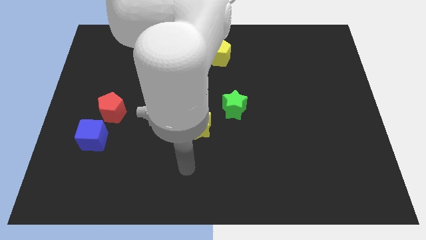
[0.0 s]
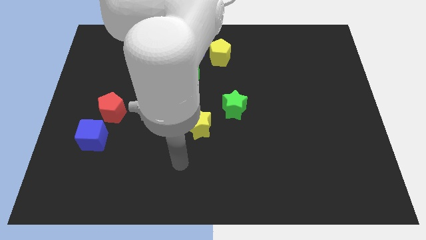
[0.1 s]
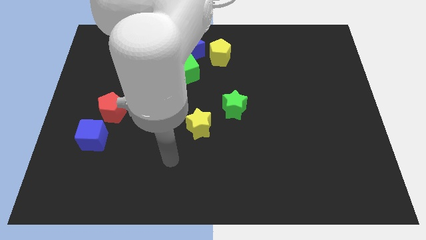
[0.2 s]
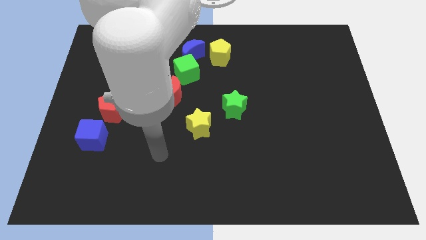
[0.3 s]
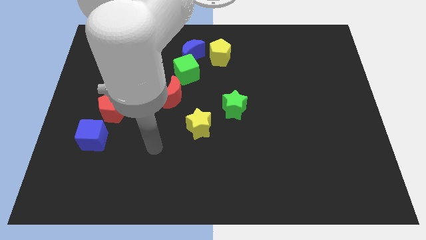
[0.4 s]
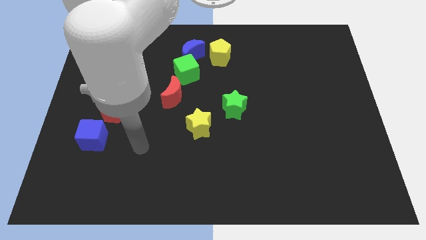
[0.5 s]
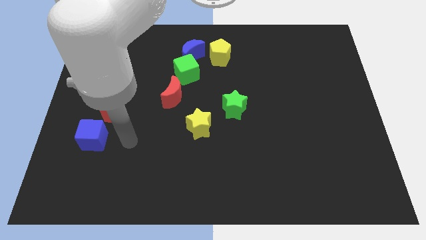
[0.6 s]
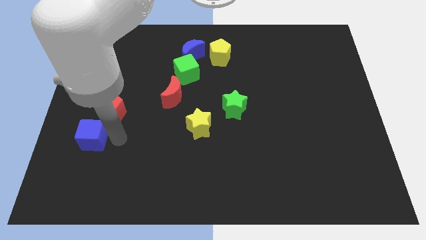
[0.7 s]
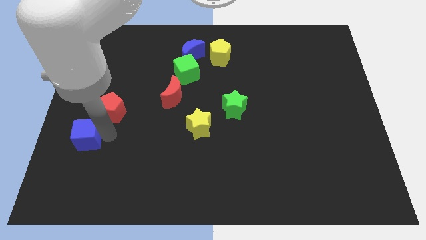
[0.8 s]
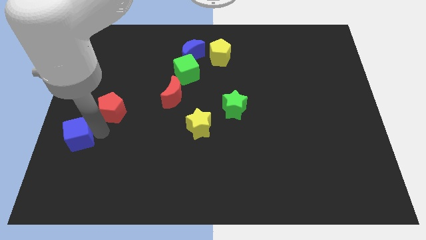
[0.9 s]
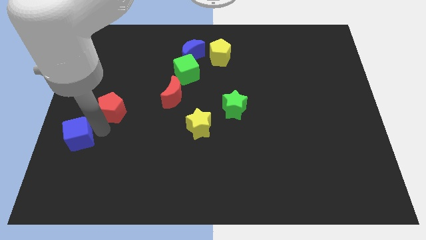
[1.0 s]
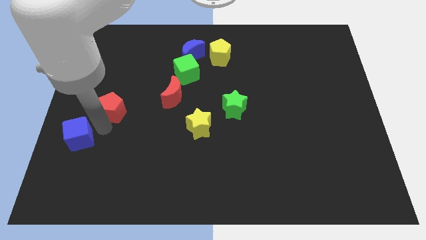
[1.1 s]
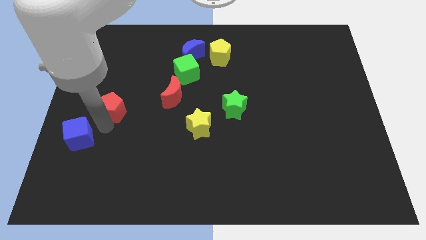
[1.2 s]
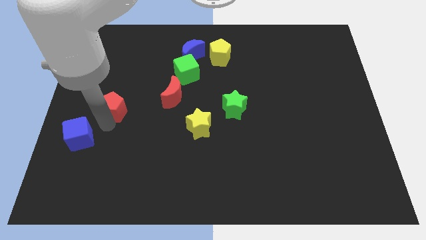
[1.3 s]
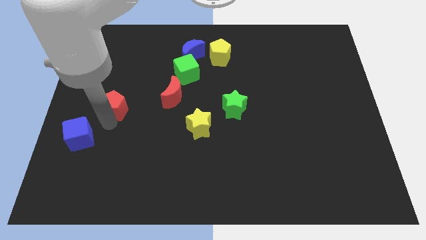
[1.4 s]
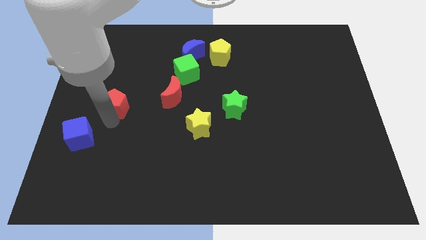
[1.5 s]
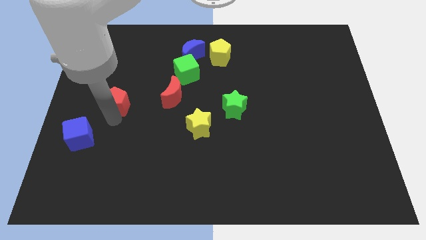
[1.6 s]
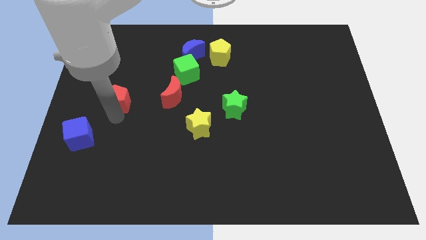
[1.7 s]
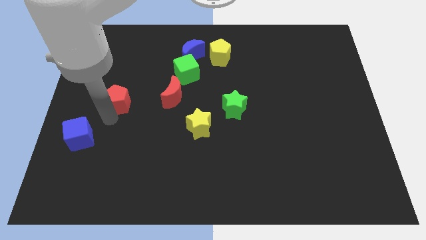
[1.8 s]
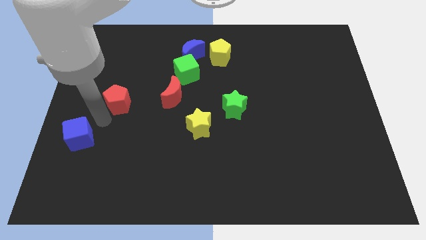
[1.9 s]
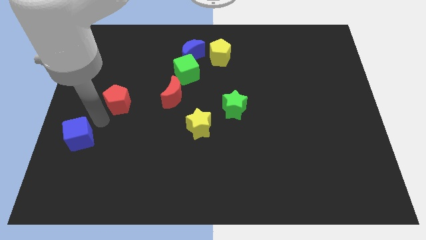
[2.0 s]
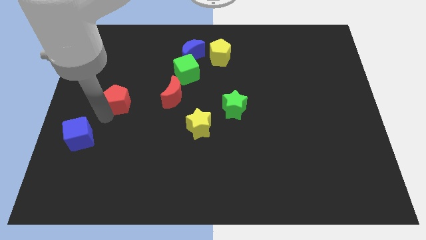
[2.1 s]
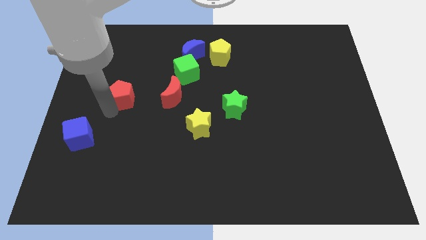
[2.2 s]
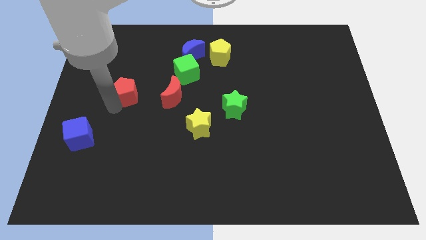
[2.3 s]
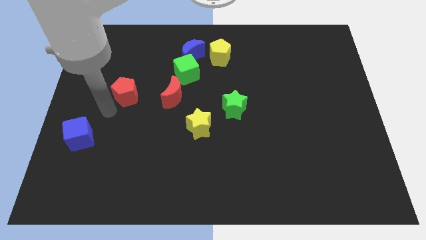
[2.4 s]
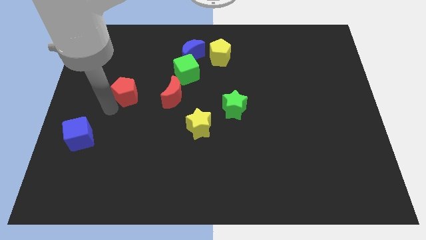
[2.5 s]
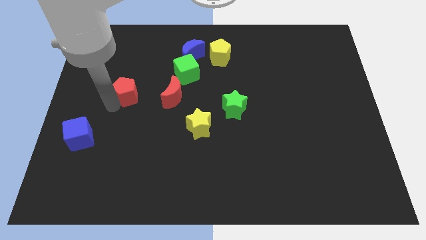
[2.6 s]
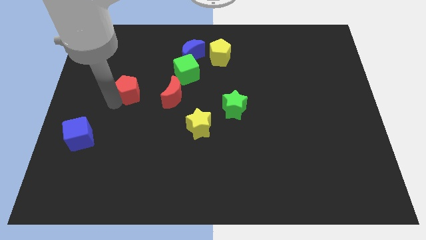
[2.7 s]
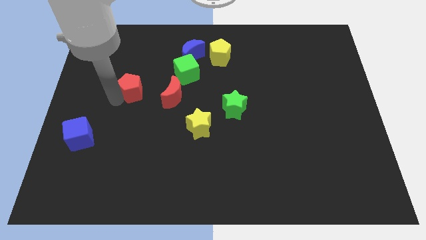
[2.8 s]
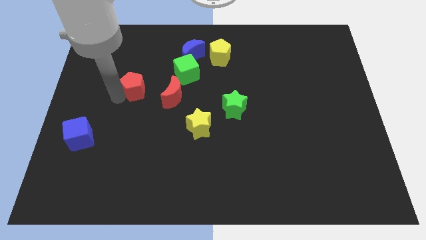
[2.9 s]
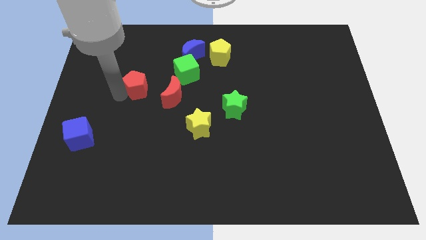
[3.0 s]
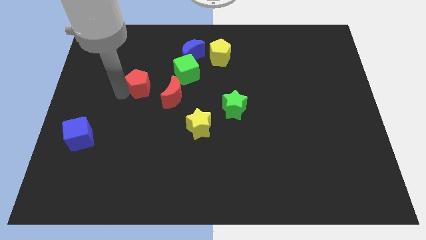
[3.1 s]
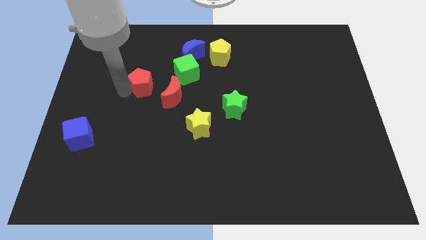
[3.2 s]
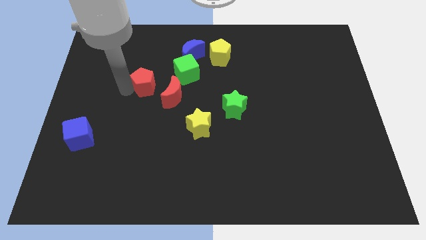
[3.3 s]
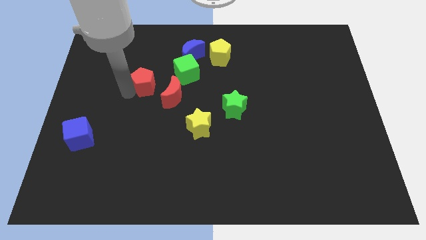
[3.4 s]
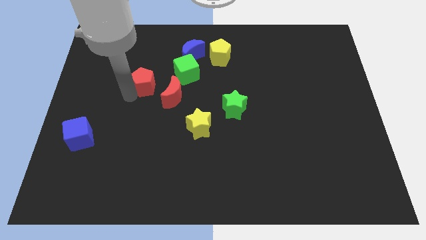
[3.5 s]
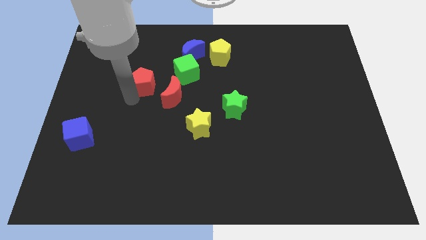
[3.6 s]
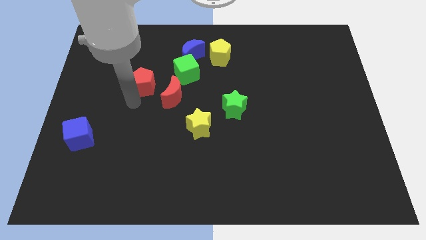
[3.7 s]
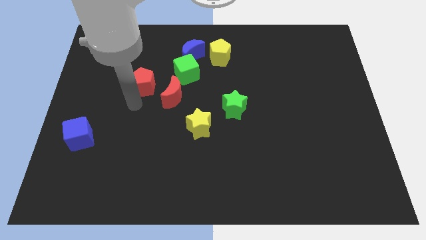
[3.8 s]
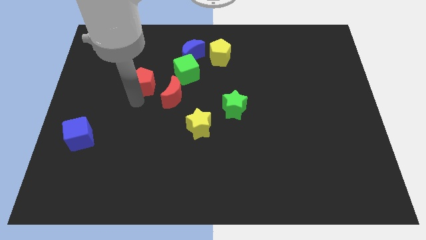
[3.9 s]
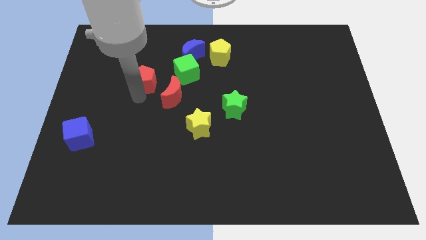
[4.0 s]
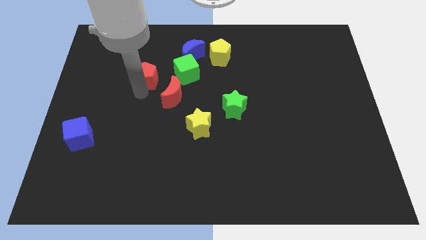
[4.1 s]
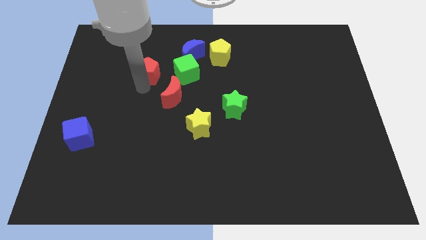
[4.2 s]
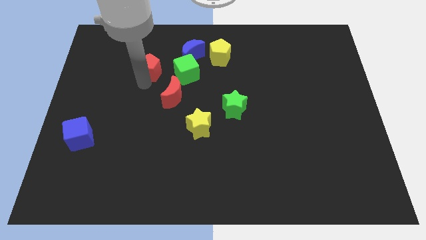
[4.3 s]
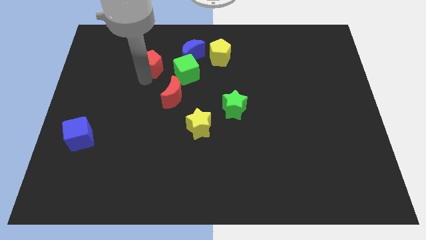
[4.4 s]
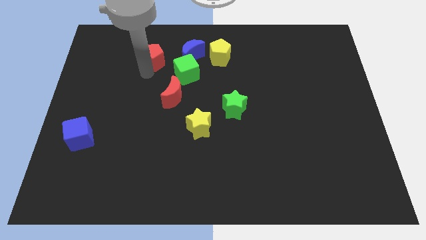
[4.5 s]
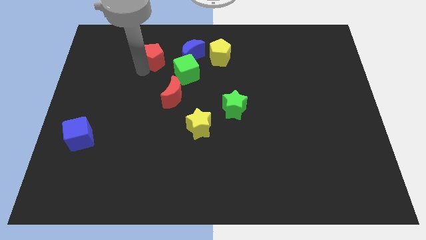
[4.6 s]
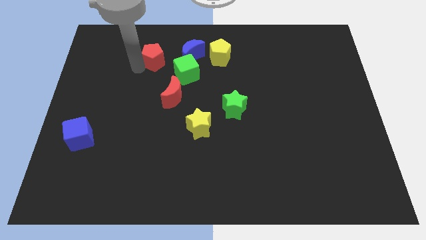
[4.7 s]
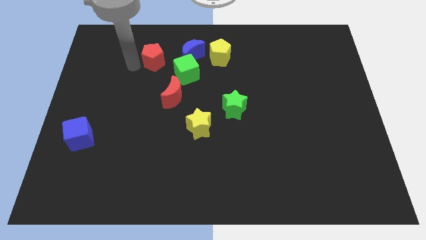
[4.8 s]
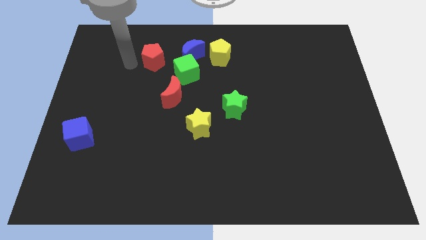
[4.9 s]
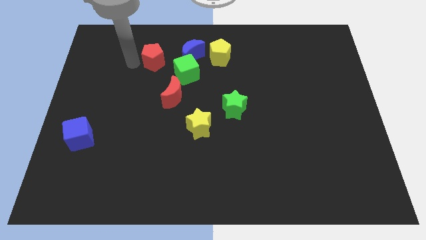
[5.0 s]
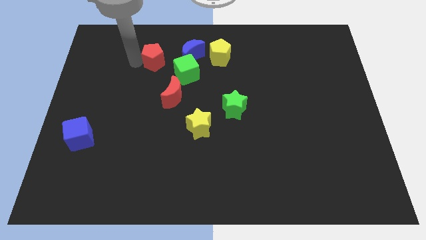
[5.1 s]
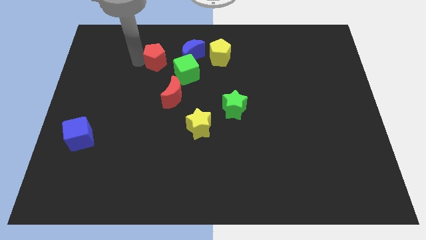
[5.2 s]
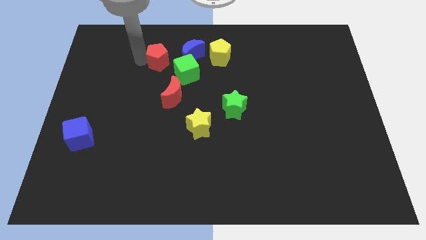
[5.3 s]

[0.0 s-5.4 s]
push the red pentagon to the left side of the yellow pentagon

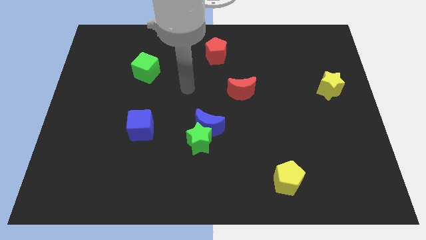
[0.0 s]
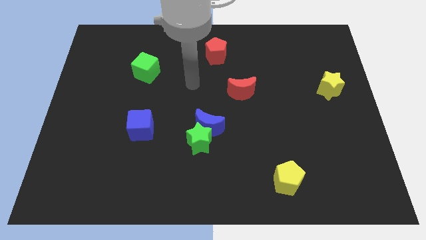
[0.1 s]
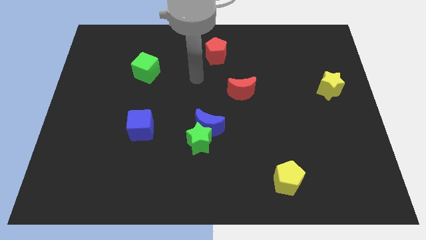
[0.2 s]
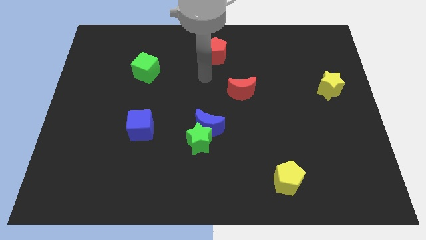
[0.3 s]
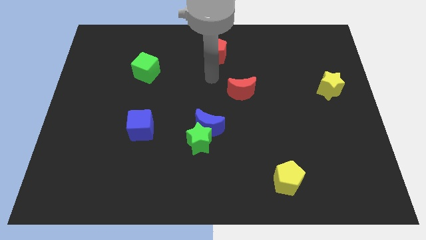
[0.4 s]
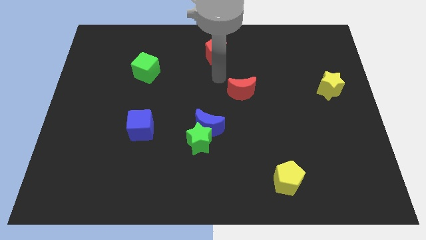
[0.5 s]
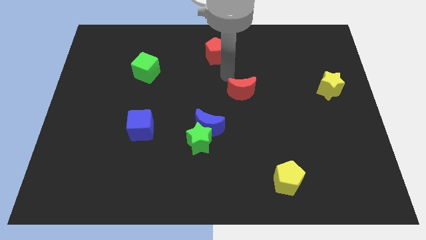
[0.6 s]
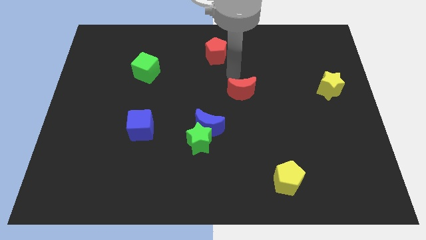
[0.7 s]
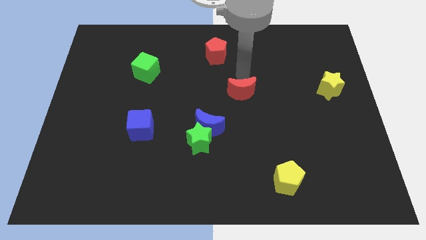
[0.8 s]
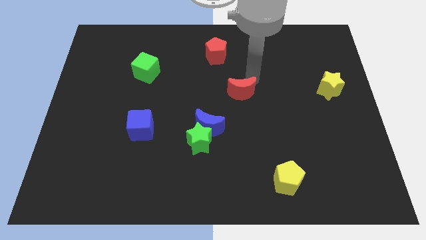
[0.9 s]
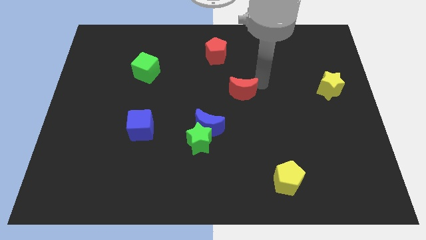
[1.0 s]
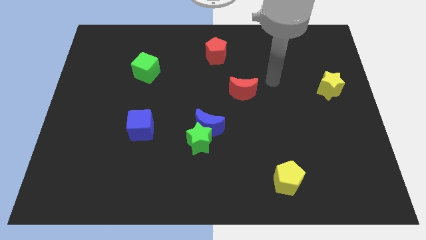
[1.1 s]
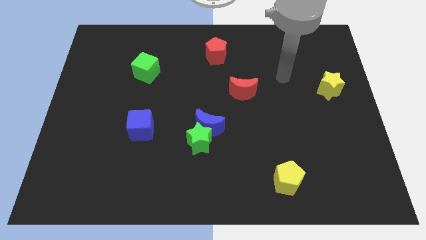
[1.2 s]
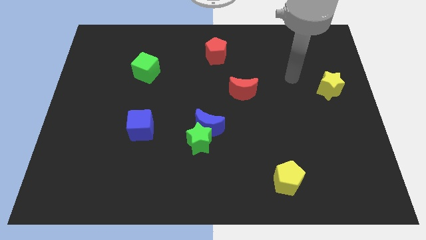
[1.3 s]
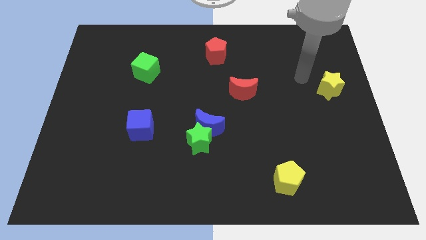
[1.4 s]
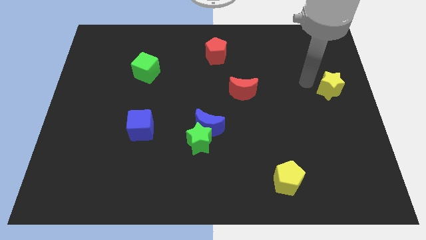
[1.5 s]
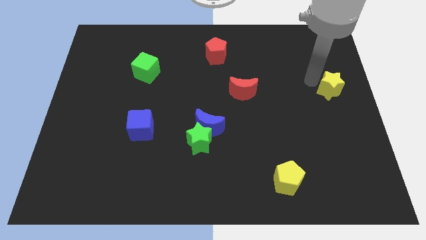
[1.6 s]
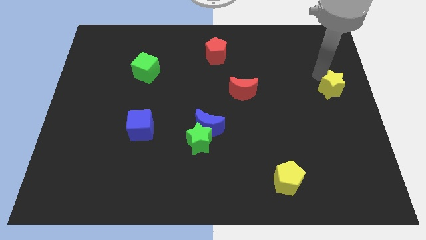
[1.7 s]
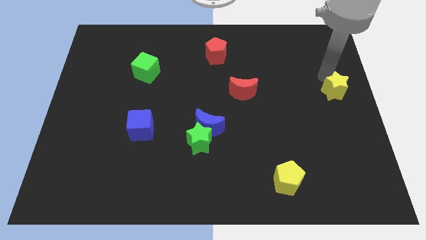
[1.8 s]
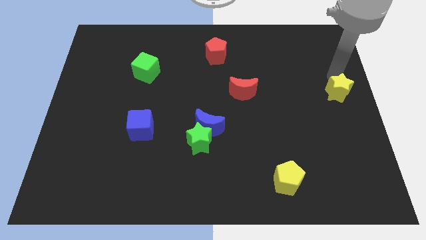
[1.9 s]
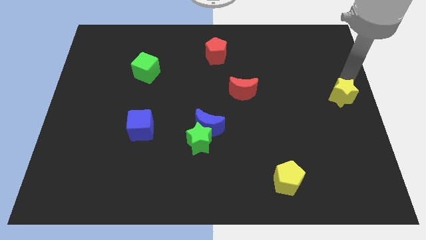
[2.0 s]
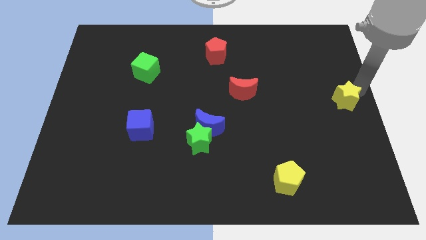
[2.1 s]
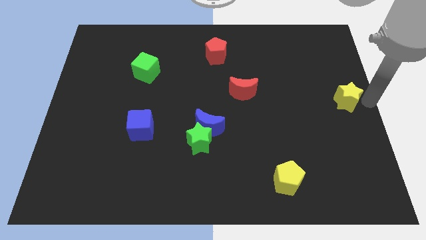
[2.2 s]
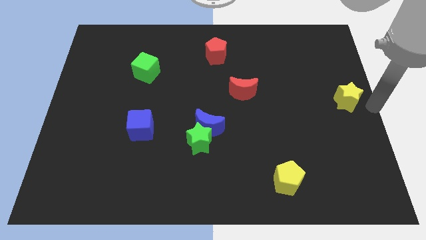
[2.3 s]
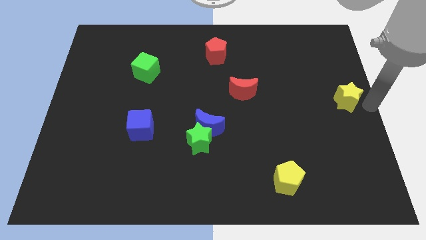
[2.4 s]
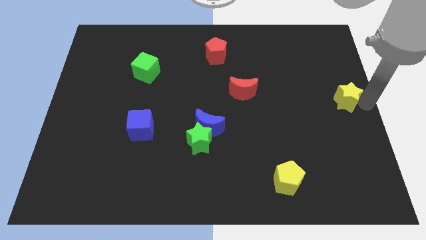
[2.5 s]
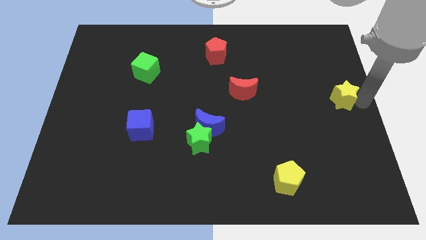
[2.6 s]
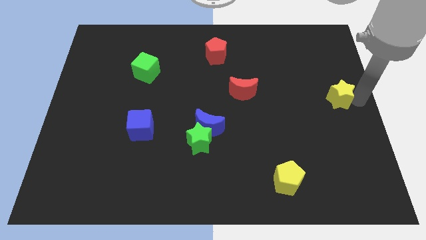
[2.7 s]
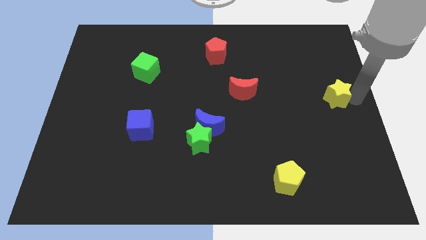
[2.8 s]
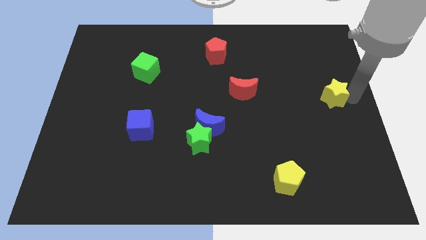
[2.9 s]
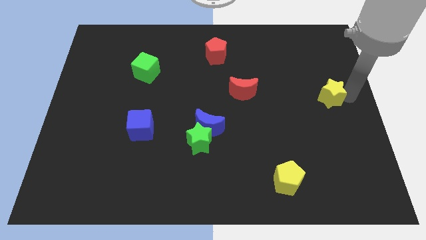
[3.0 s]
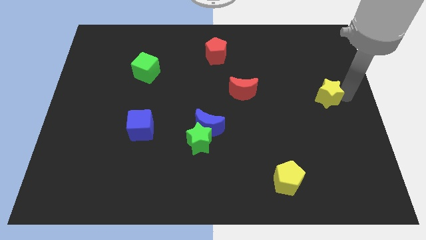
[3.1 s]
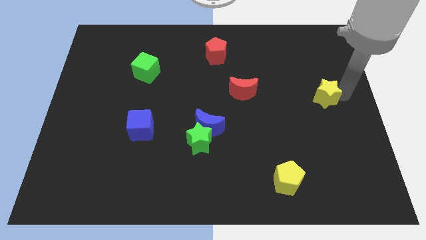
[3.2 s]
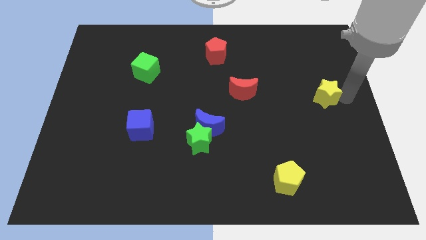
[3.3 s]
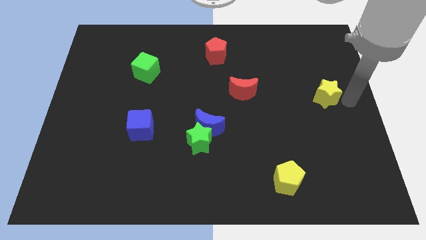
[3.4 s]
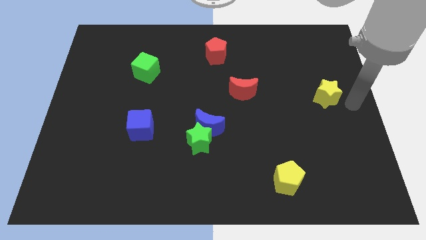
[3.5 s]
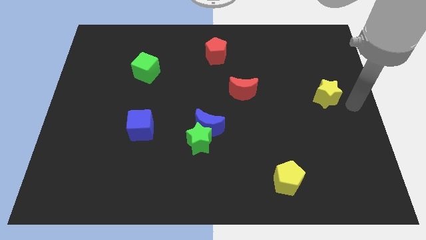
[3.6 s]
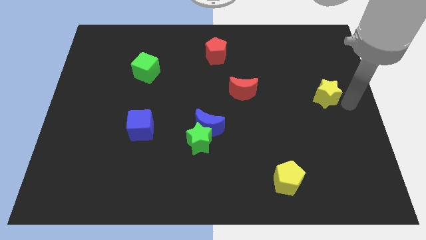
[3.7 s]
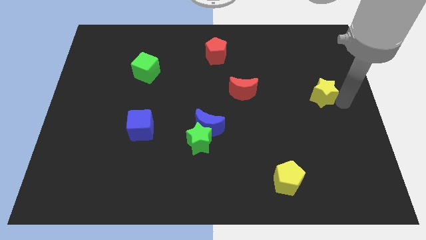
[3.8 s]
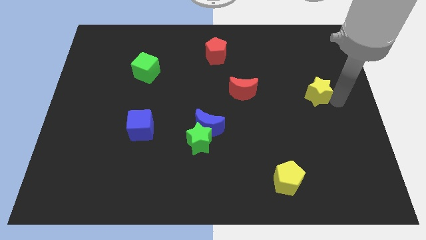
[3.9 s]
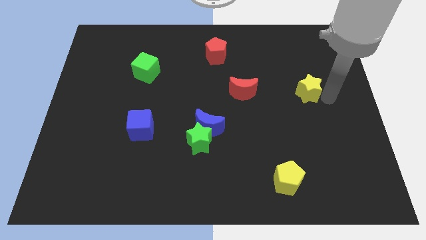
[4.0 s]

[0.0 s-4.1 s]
move the yellow star to the right side of the red moon
